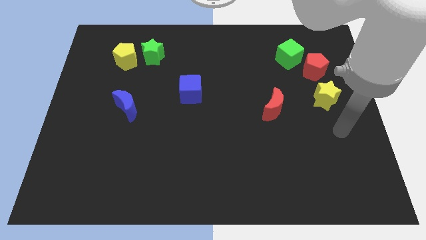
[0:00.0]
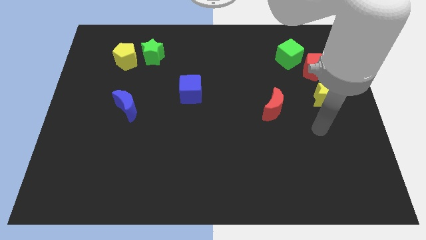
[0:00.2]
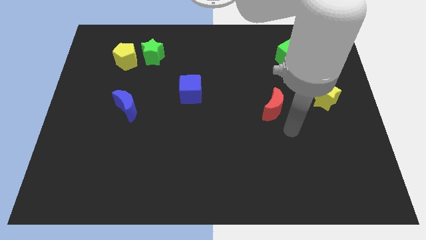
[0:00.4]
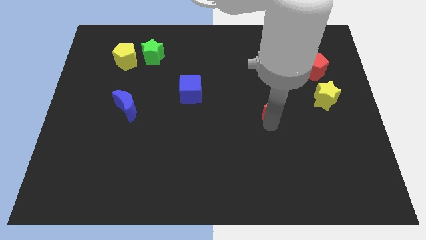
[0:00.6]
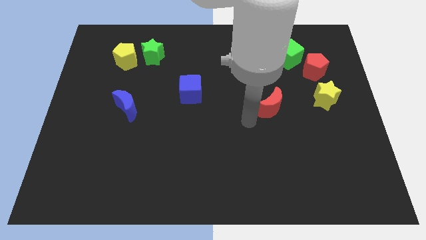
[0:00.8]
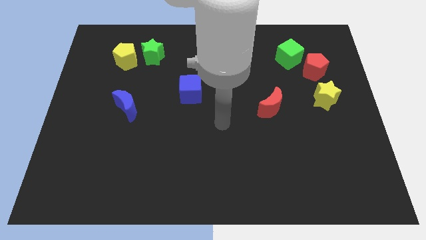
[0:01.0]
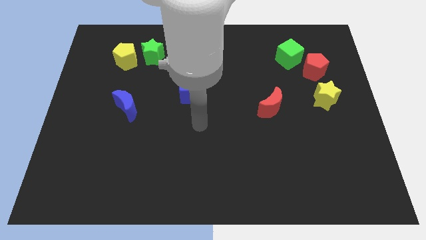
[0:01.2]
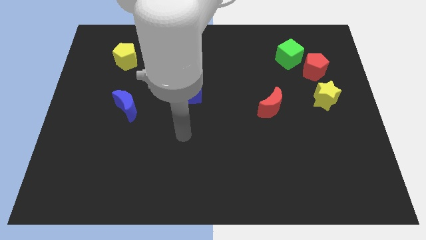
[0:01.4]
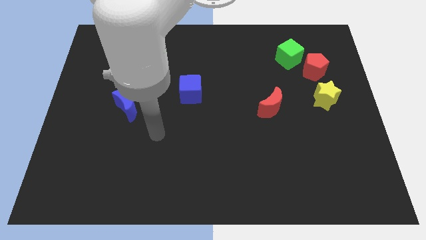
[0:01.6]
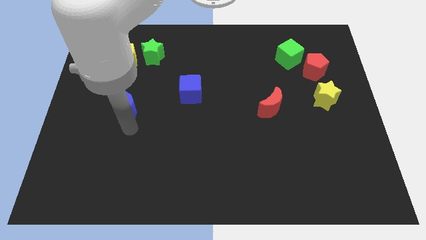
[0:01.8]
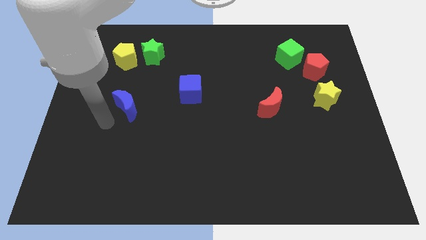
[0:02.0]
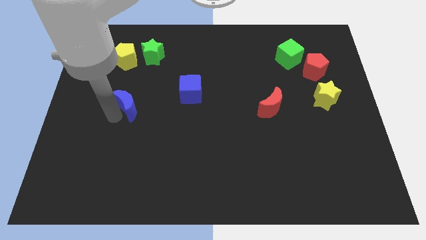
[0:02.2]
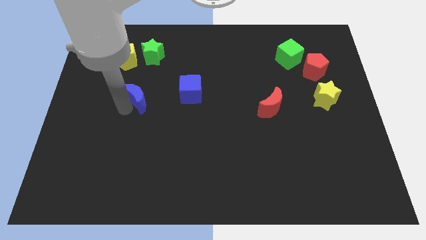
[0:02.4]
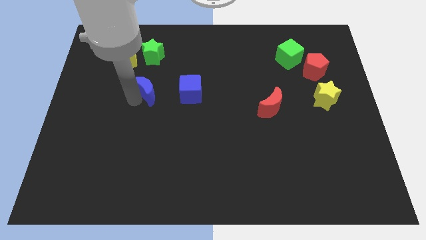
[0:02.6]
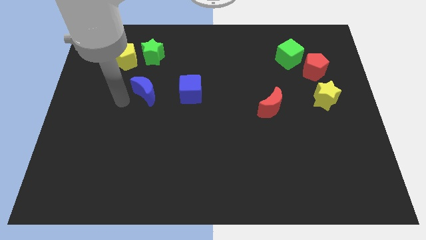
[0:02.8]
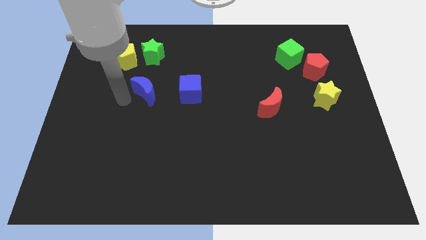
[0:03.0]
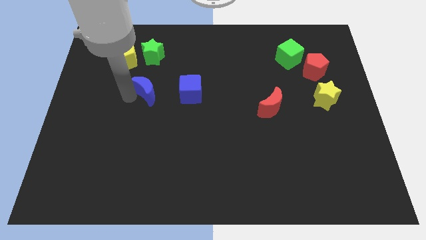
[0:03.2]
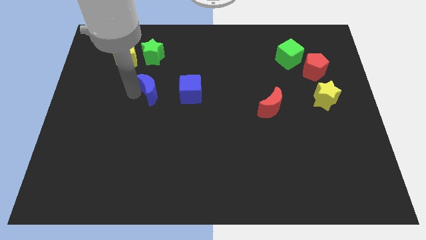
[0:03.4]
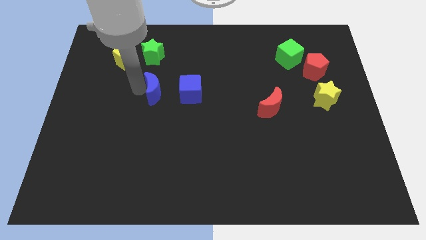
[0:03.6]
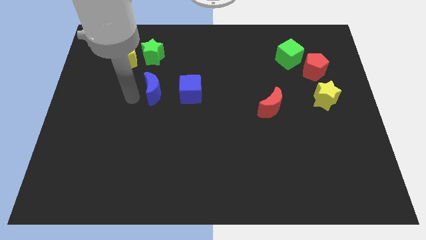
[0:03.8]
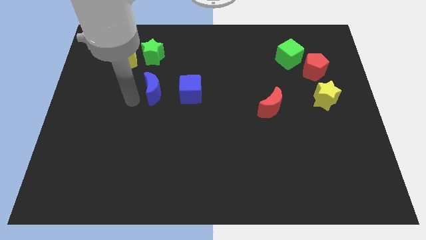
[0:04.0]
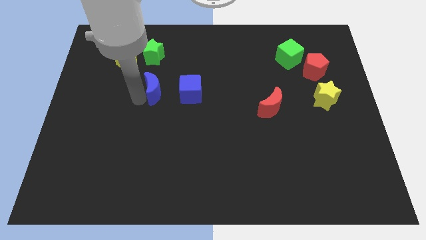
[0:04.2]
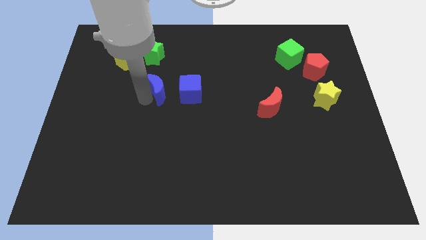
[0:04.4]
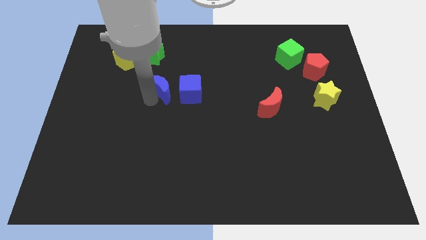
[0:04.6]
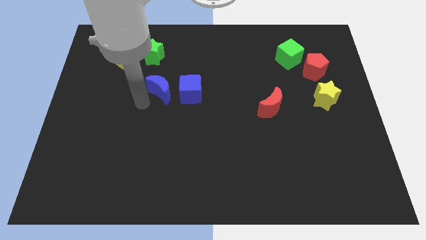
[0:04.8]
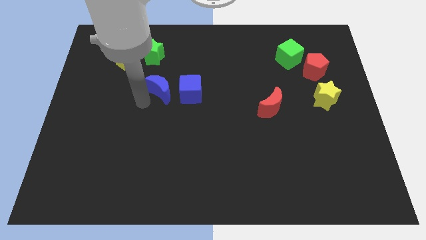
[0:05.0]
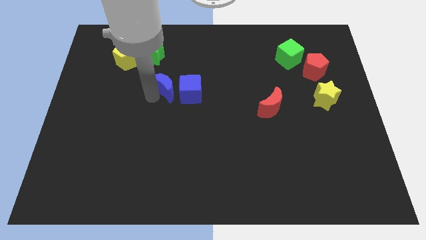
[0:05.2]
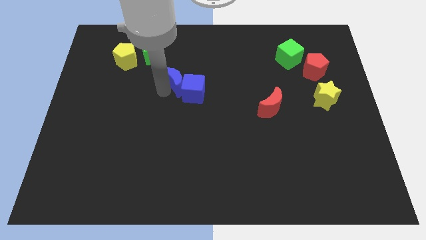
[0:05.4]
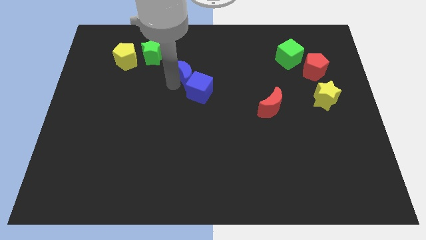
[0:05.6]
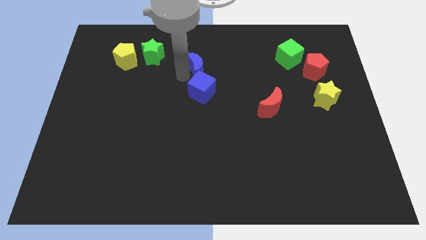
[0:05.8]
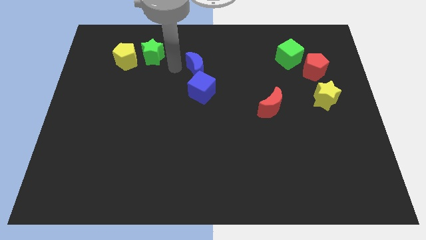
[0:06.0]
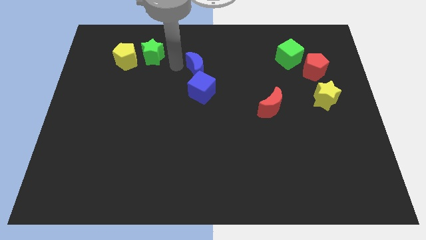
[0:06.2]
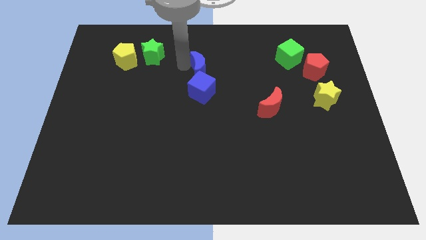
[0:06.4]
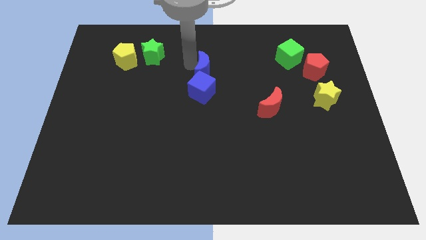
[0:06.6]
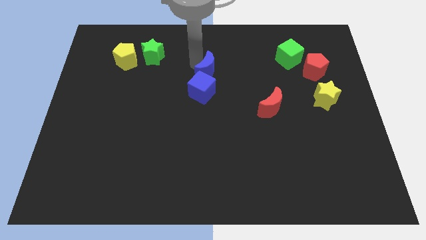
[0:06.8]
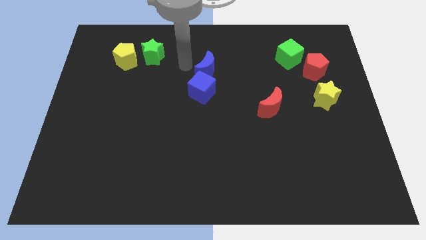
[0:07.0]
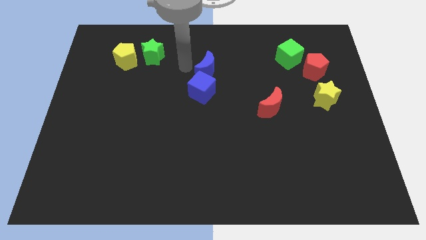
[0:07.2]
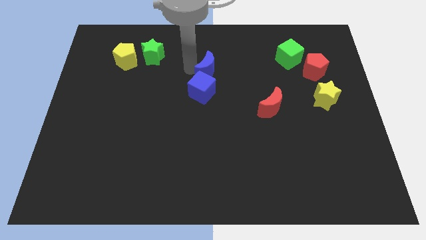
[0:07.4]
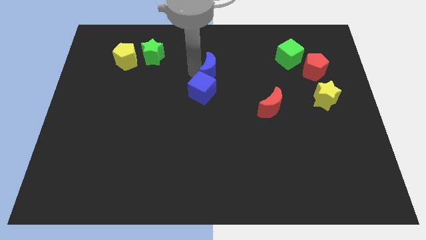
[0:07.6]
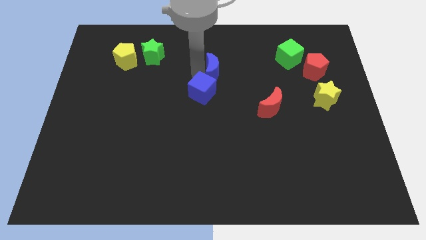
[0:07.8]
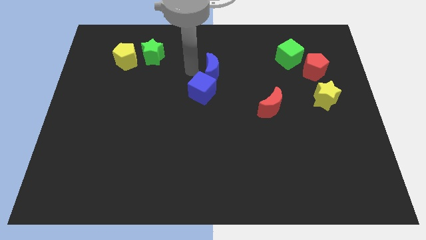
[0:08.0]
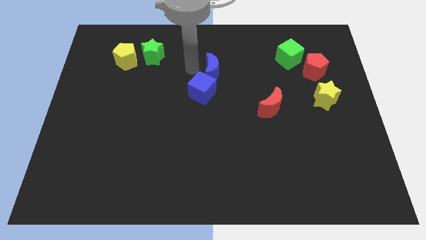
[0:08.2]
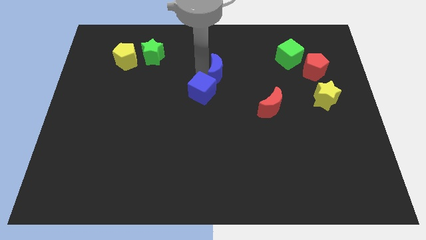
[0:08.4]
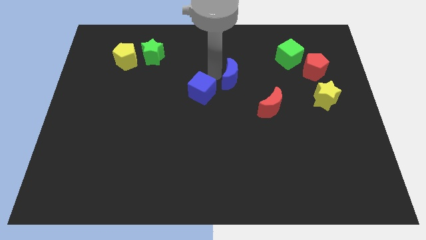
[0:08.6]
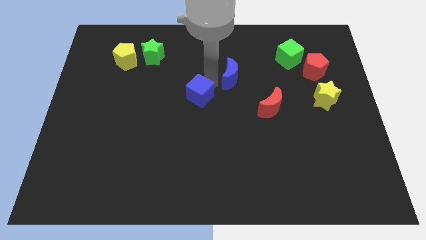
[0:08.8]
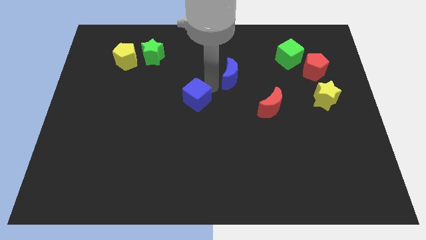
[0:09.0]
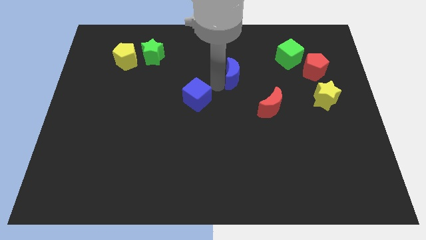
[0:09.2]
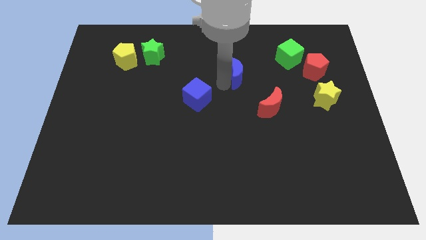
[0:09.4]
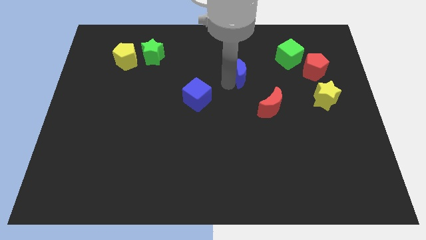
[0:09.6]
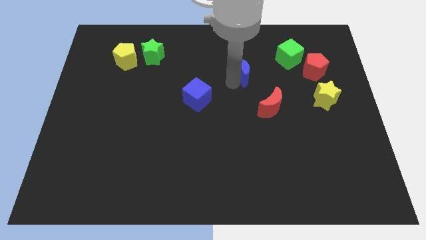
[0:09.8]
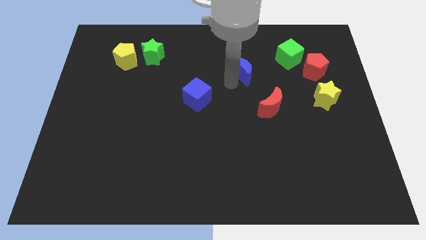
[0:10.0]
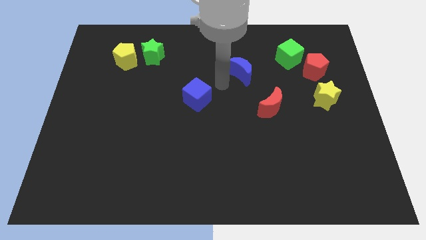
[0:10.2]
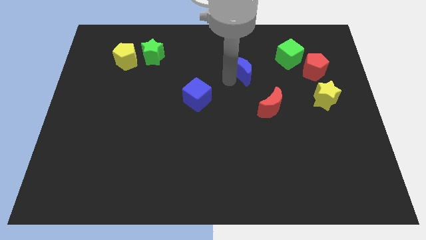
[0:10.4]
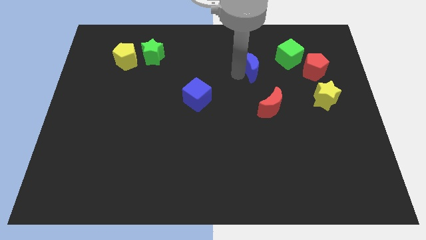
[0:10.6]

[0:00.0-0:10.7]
move the blue moon to the left side of the red pentagon

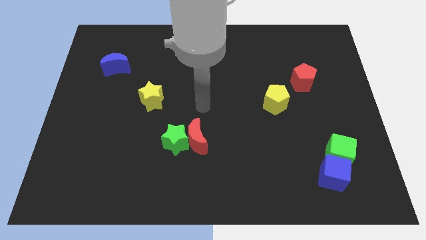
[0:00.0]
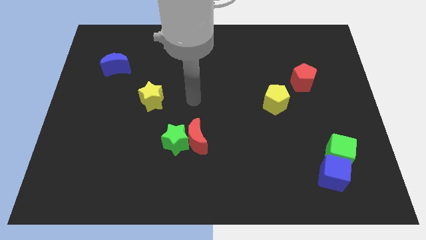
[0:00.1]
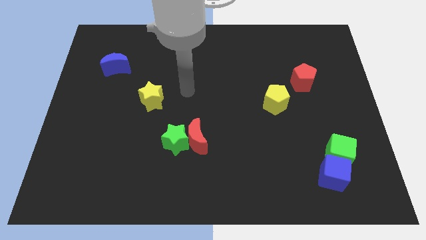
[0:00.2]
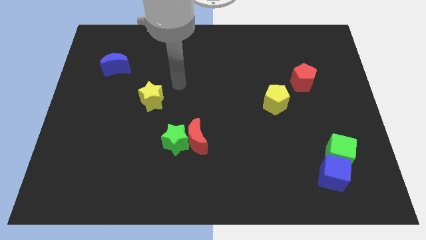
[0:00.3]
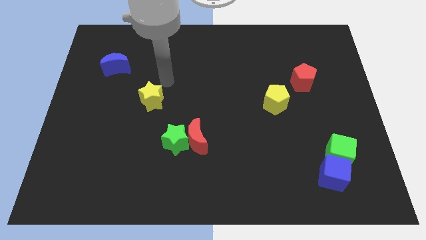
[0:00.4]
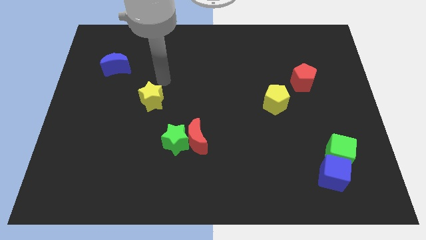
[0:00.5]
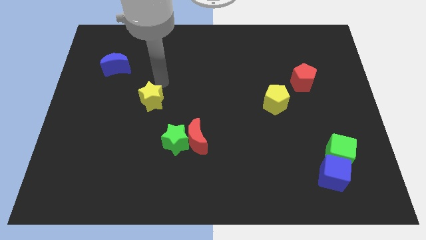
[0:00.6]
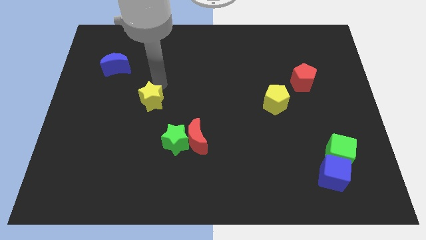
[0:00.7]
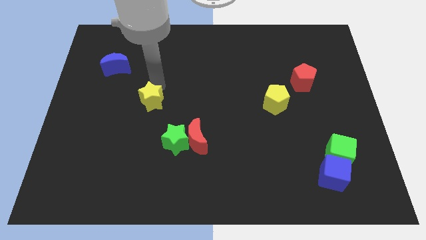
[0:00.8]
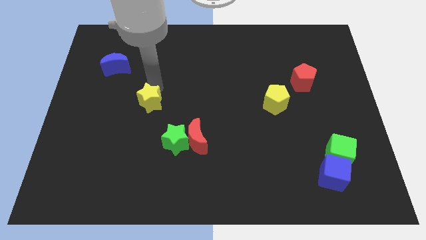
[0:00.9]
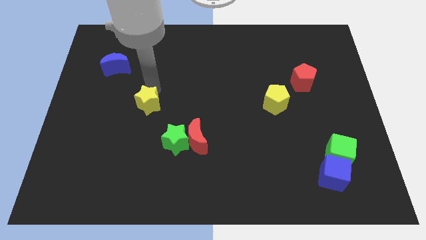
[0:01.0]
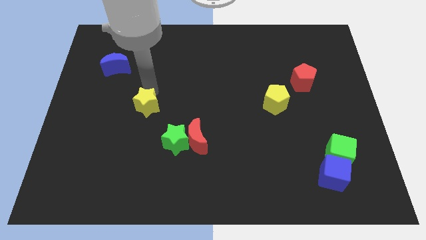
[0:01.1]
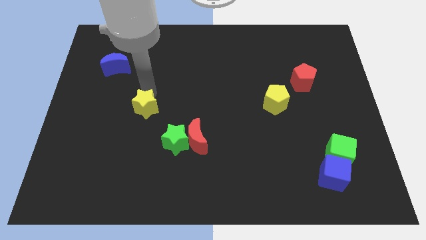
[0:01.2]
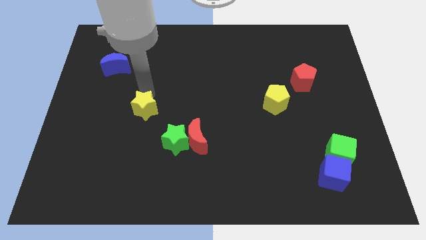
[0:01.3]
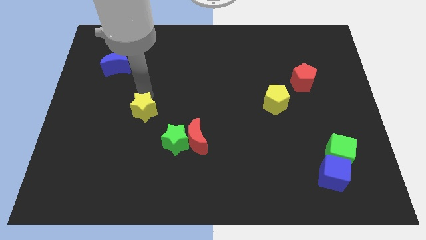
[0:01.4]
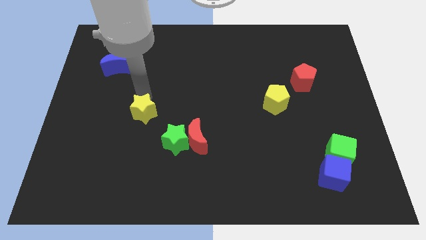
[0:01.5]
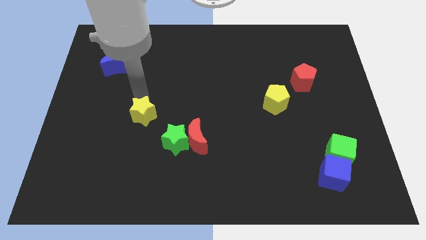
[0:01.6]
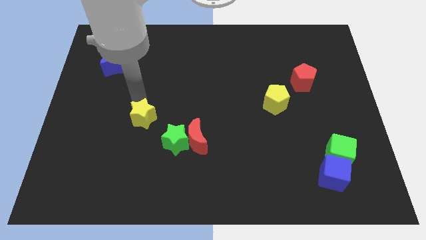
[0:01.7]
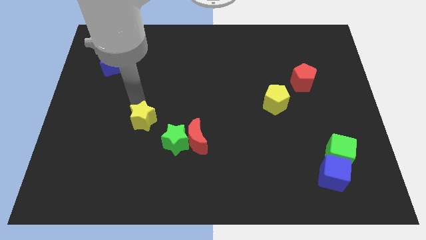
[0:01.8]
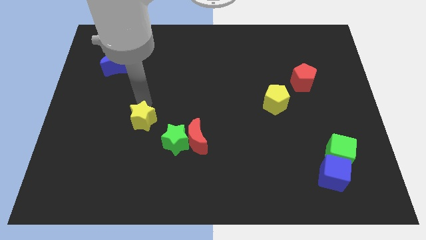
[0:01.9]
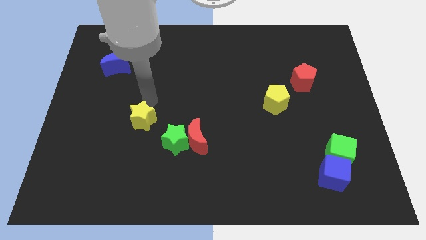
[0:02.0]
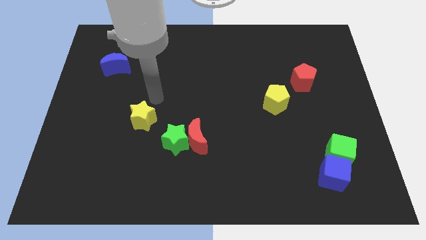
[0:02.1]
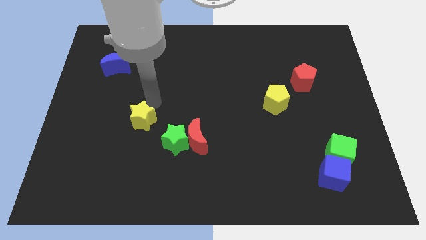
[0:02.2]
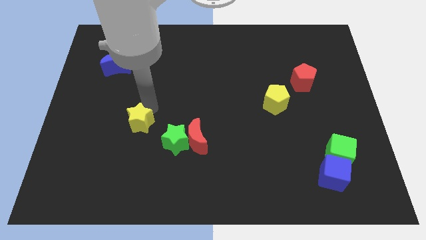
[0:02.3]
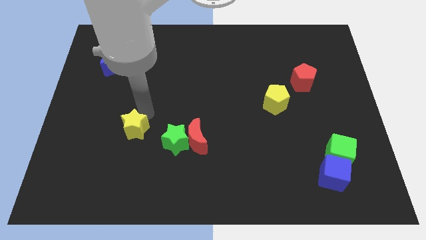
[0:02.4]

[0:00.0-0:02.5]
put the yellow star left of the green star
